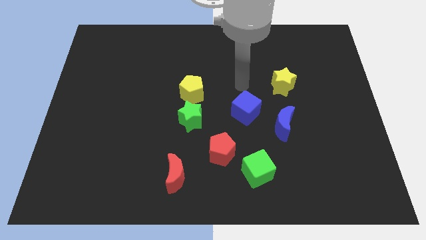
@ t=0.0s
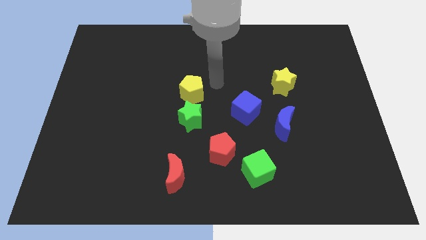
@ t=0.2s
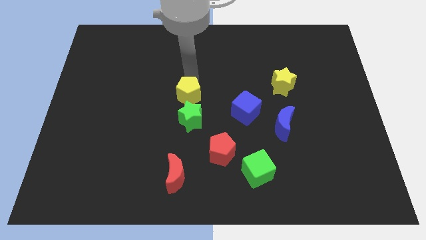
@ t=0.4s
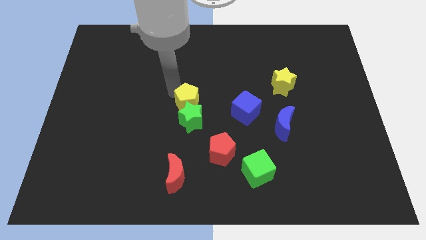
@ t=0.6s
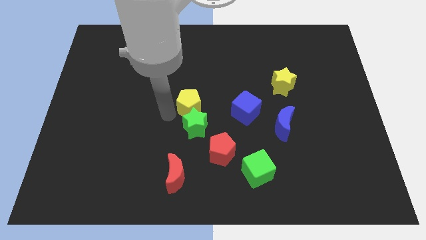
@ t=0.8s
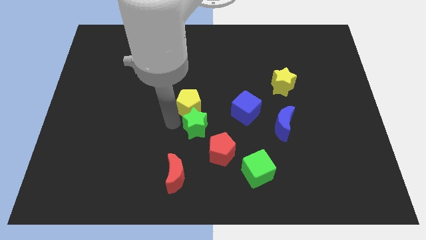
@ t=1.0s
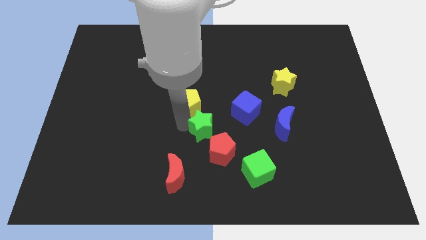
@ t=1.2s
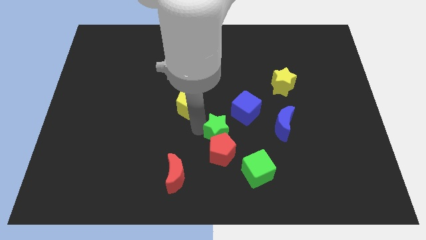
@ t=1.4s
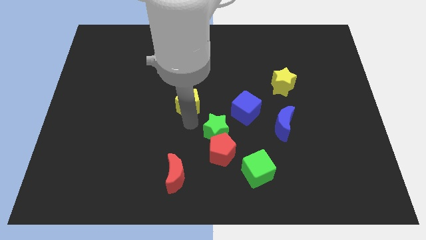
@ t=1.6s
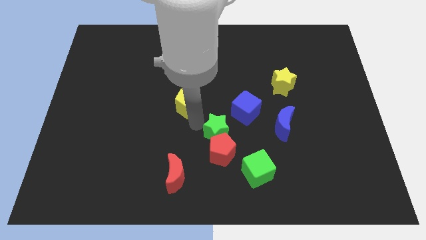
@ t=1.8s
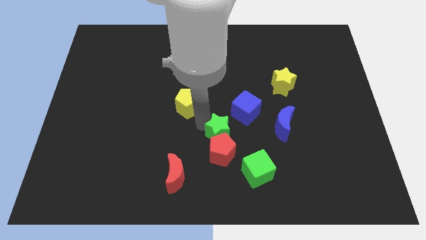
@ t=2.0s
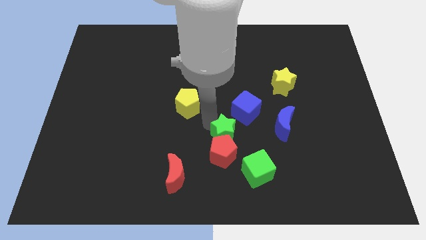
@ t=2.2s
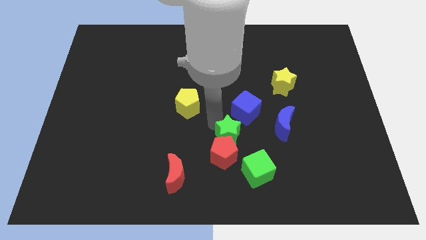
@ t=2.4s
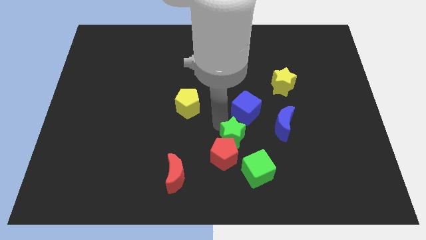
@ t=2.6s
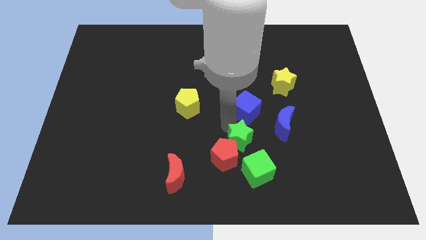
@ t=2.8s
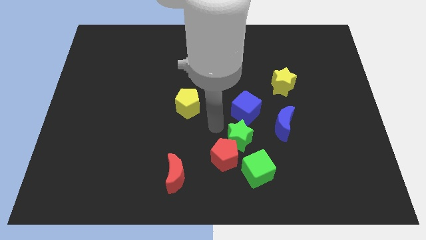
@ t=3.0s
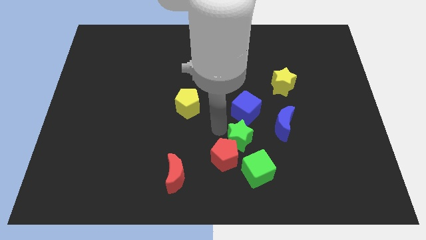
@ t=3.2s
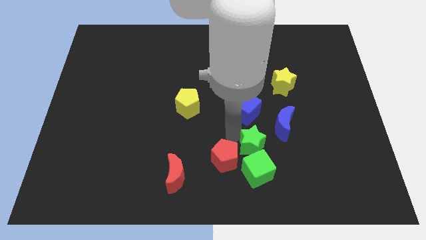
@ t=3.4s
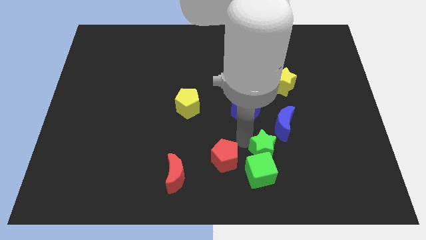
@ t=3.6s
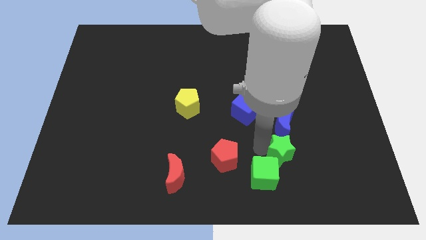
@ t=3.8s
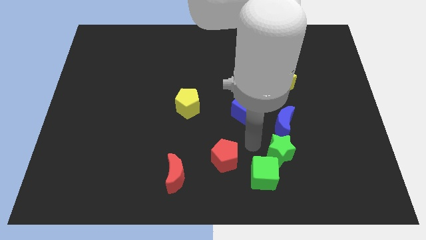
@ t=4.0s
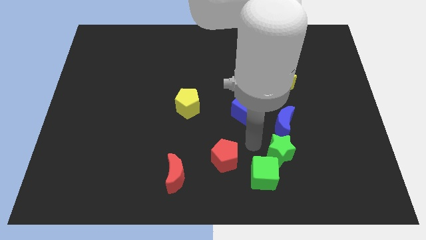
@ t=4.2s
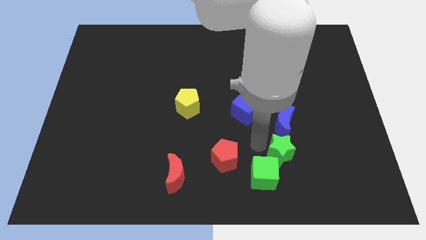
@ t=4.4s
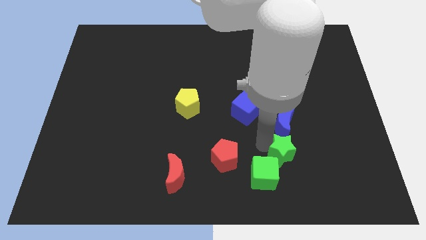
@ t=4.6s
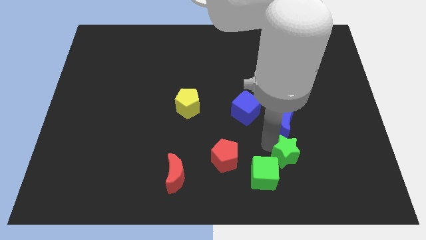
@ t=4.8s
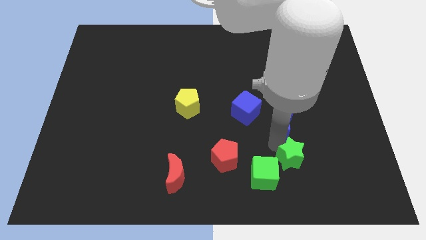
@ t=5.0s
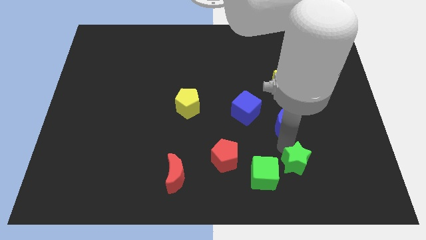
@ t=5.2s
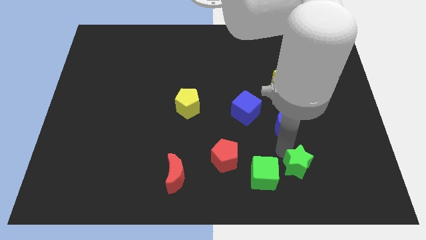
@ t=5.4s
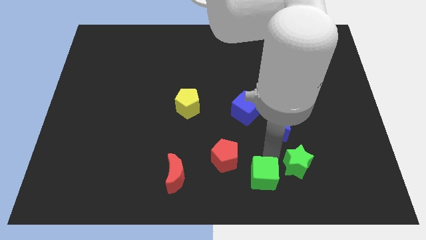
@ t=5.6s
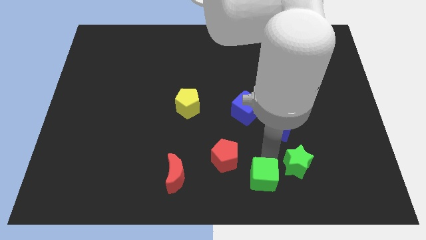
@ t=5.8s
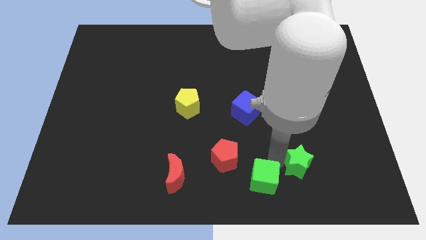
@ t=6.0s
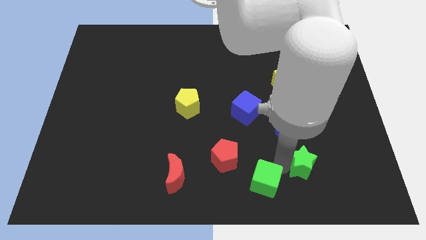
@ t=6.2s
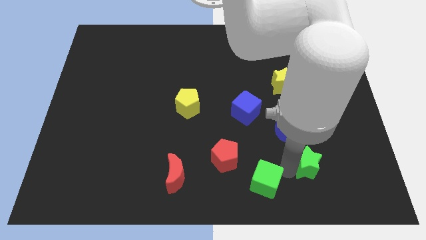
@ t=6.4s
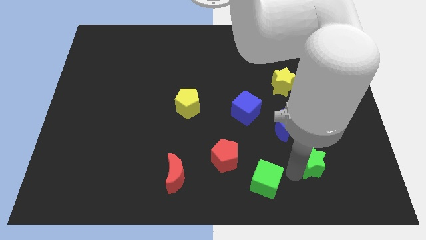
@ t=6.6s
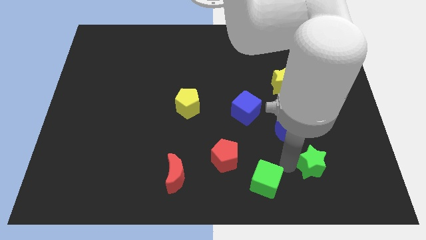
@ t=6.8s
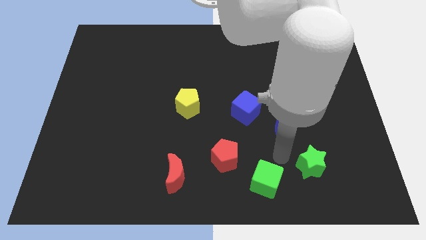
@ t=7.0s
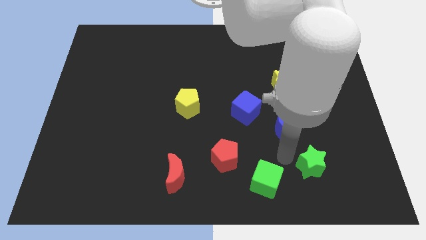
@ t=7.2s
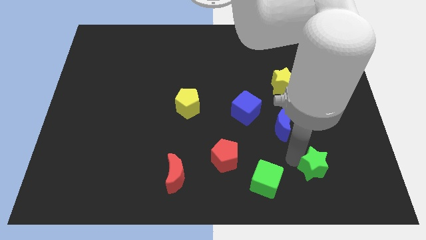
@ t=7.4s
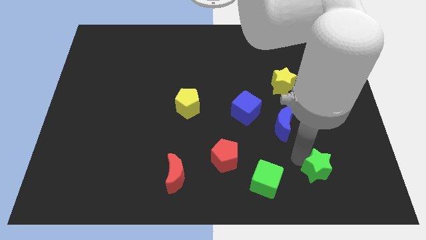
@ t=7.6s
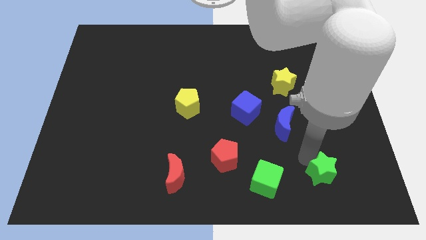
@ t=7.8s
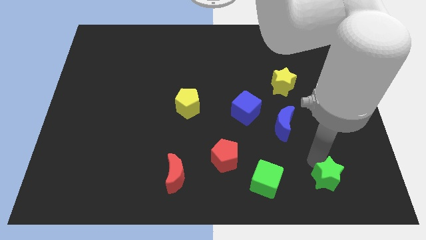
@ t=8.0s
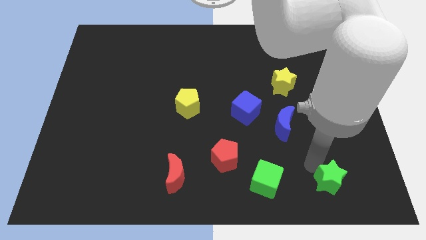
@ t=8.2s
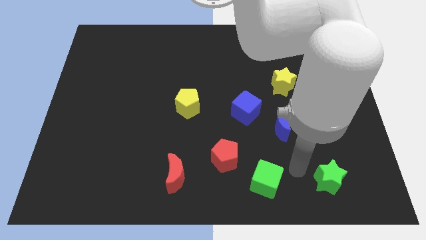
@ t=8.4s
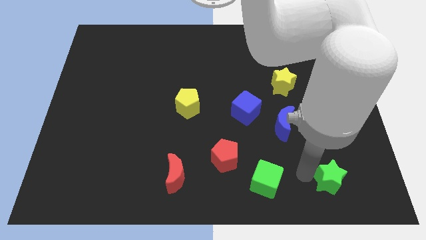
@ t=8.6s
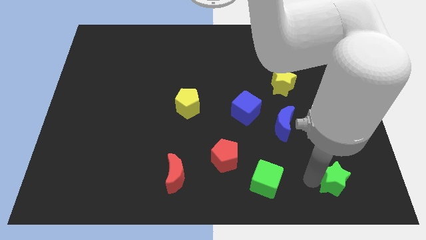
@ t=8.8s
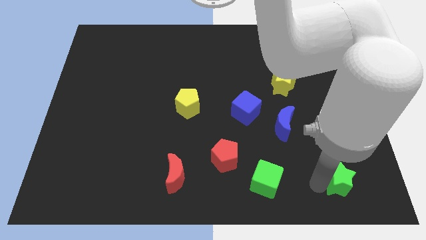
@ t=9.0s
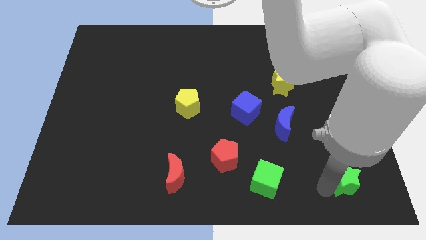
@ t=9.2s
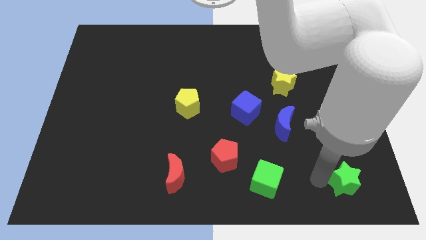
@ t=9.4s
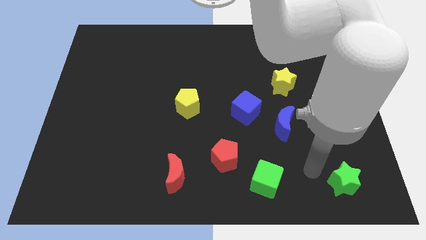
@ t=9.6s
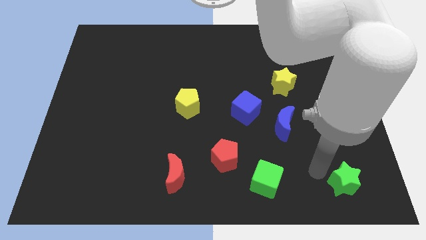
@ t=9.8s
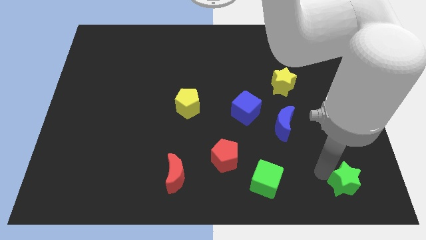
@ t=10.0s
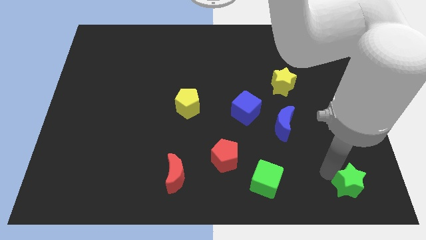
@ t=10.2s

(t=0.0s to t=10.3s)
move the green star to the bottom right of the board
